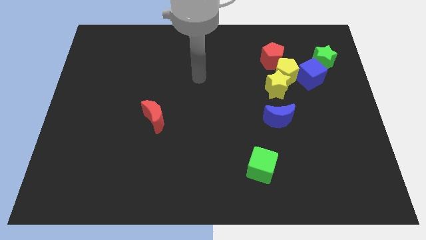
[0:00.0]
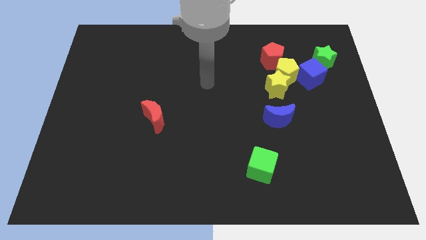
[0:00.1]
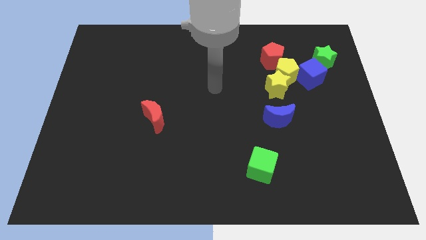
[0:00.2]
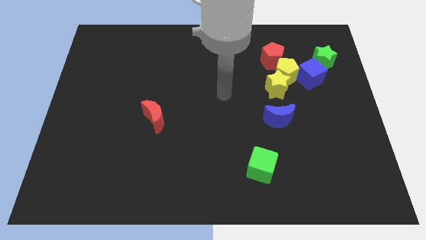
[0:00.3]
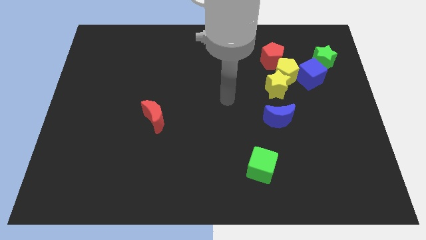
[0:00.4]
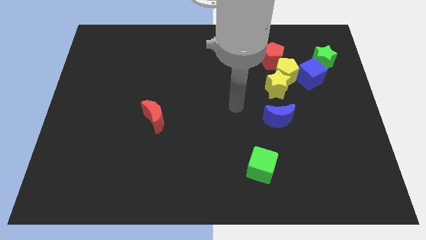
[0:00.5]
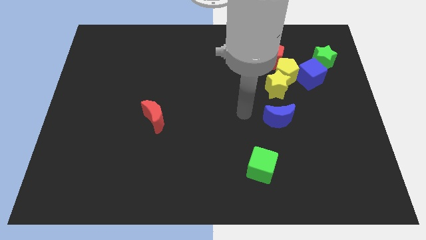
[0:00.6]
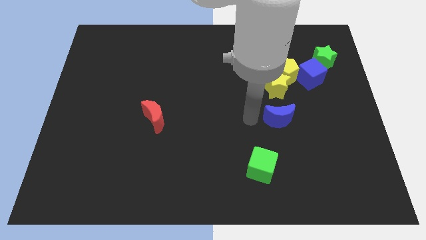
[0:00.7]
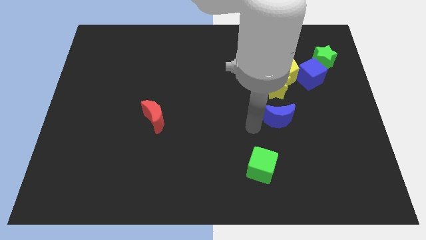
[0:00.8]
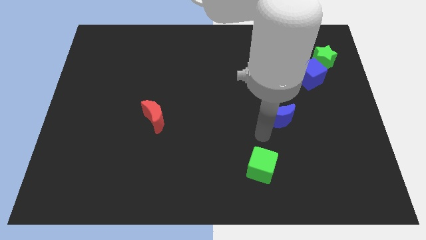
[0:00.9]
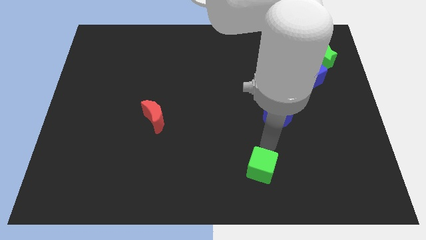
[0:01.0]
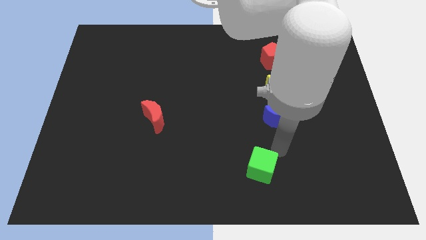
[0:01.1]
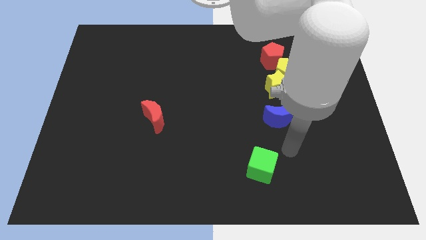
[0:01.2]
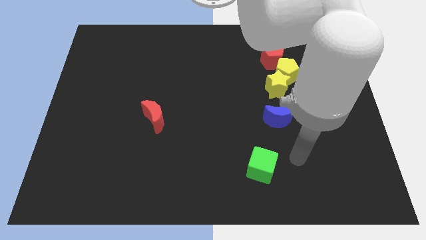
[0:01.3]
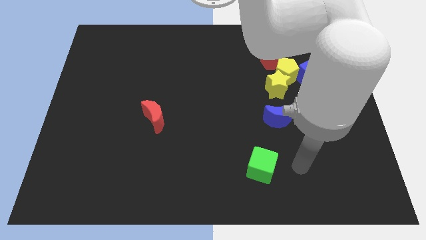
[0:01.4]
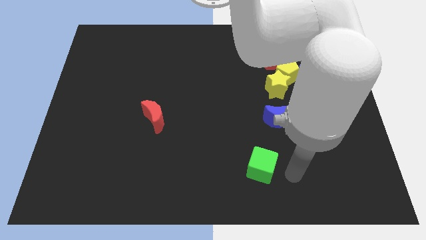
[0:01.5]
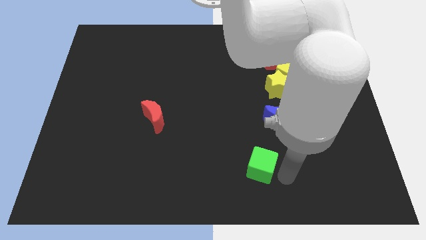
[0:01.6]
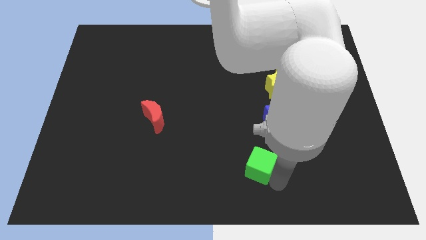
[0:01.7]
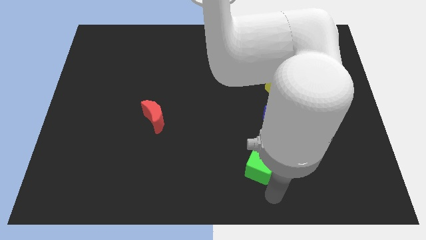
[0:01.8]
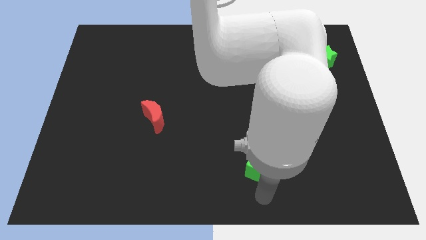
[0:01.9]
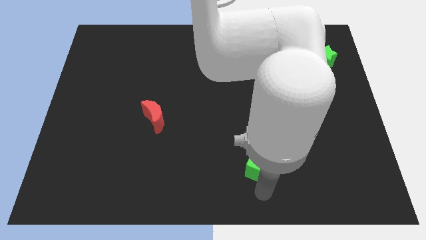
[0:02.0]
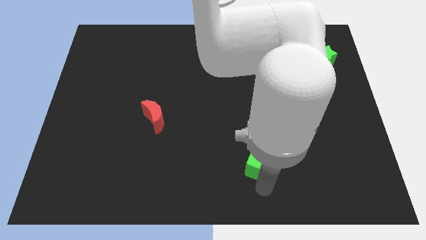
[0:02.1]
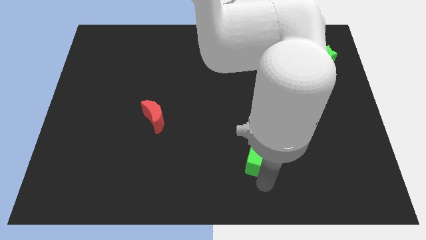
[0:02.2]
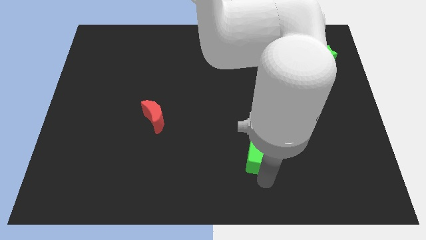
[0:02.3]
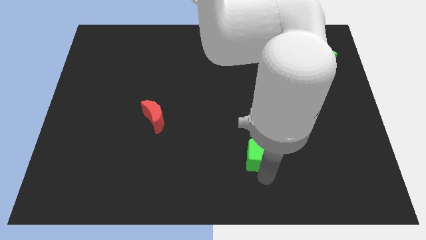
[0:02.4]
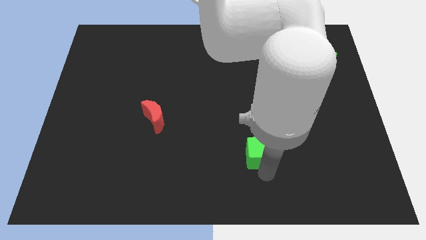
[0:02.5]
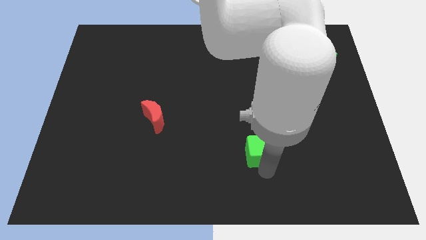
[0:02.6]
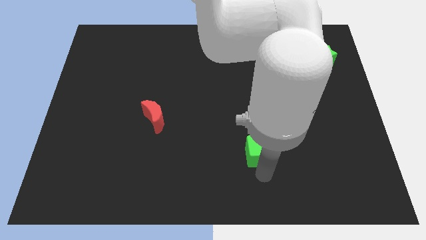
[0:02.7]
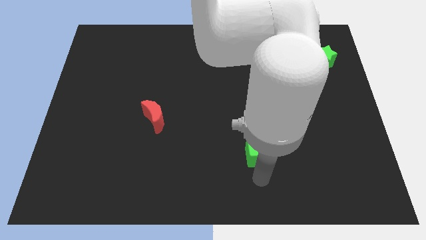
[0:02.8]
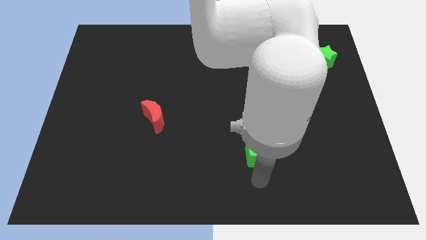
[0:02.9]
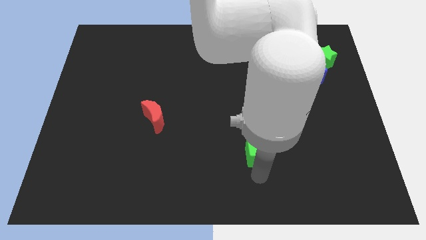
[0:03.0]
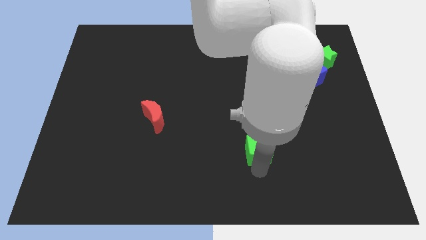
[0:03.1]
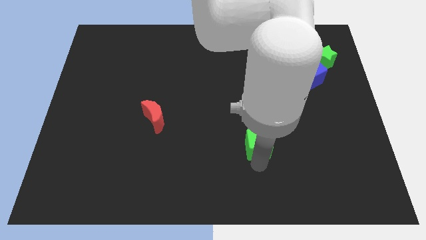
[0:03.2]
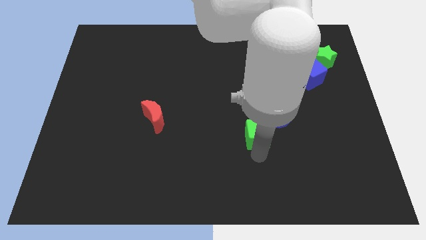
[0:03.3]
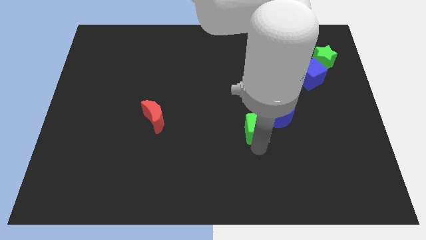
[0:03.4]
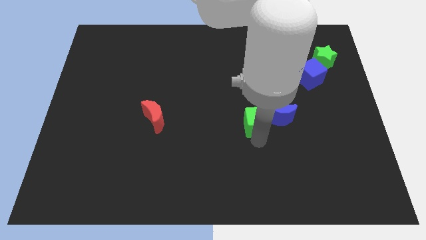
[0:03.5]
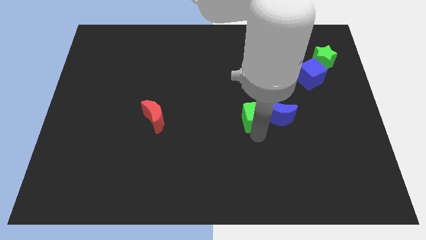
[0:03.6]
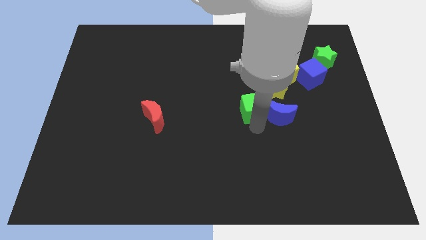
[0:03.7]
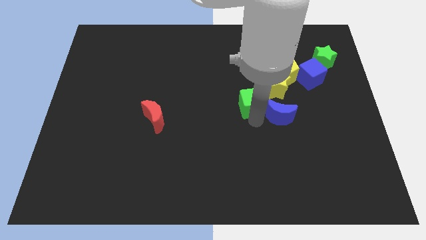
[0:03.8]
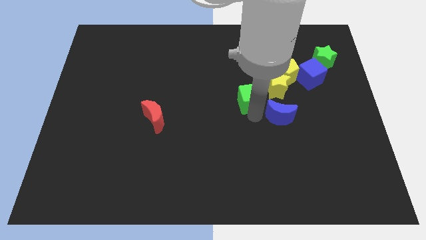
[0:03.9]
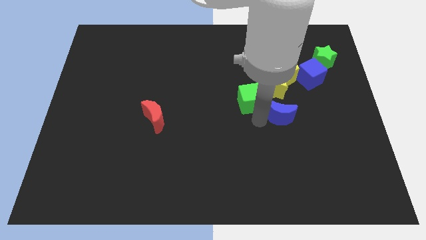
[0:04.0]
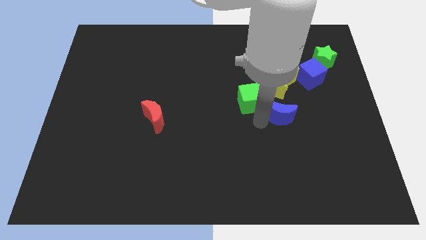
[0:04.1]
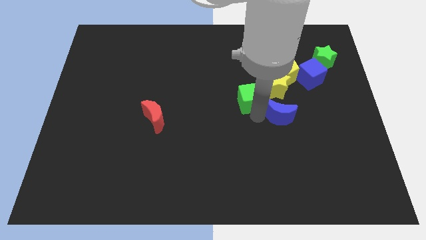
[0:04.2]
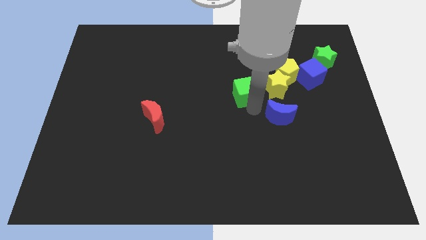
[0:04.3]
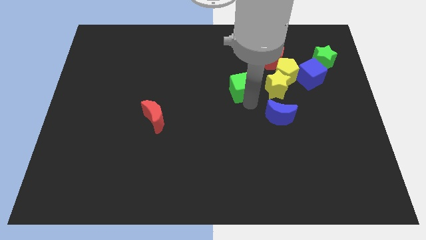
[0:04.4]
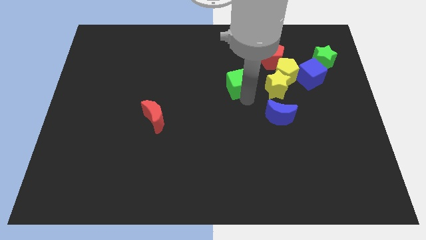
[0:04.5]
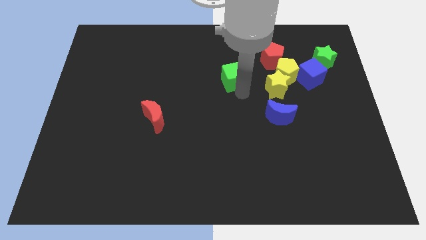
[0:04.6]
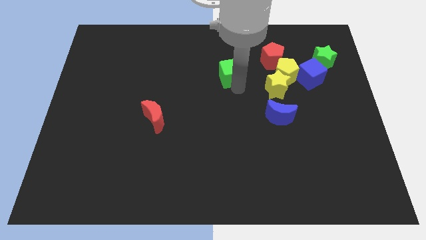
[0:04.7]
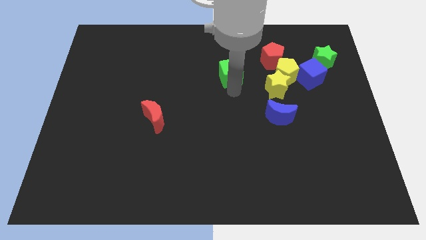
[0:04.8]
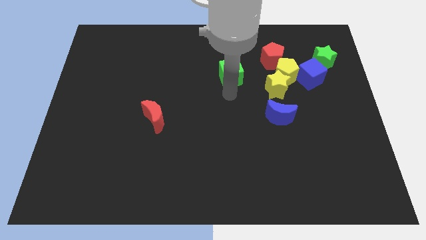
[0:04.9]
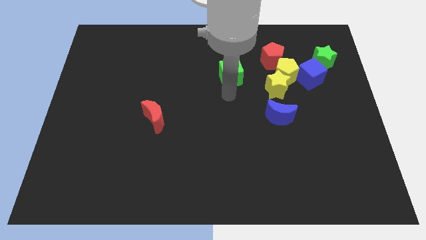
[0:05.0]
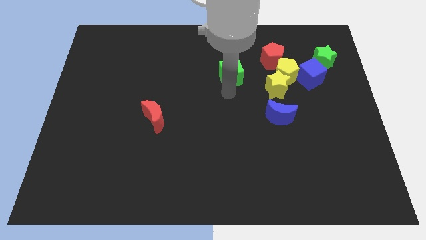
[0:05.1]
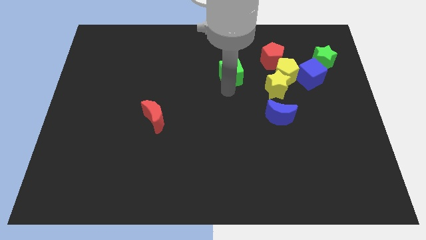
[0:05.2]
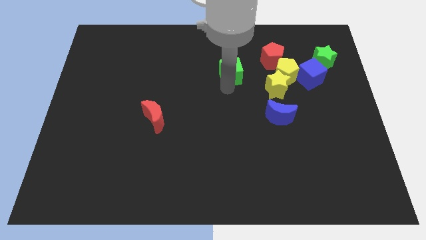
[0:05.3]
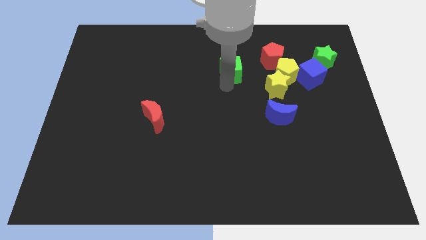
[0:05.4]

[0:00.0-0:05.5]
put the green cube left of the red pentagon

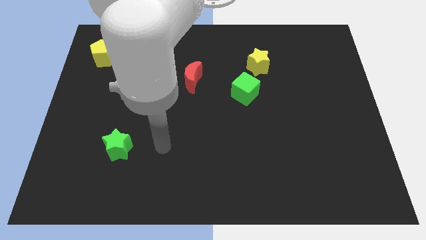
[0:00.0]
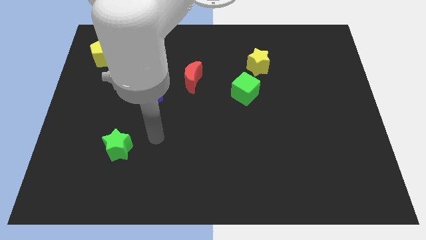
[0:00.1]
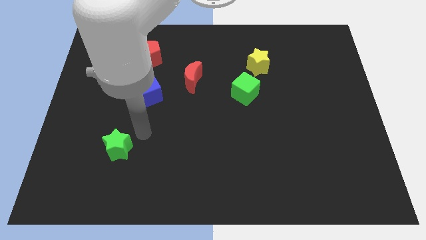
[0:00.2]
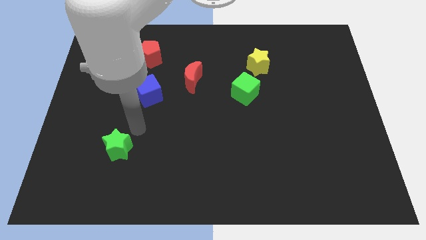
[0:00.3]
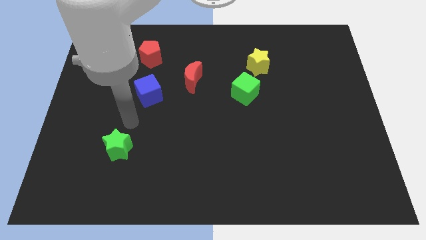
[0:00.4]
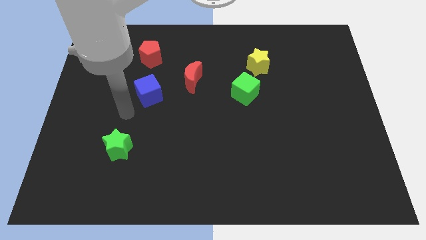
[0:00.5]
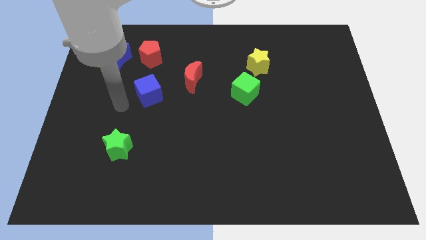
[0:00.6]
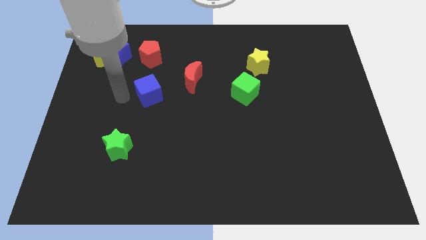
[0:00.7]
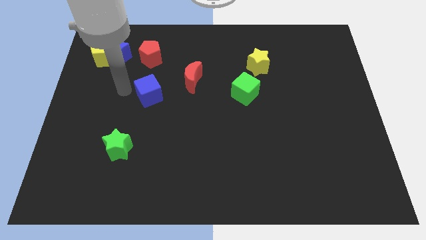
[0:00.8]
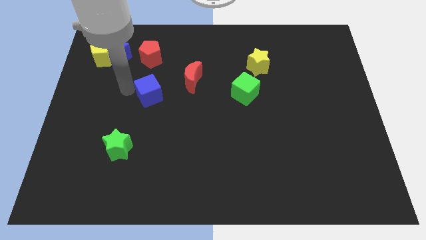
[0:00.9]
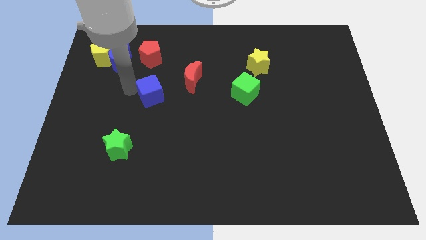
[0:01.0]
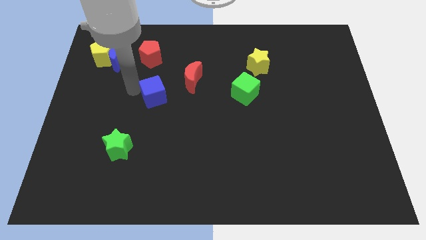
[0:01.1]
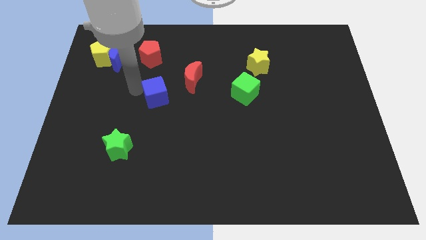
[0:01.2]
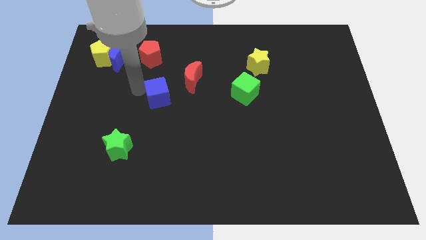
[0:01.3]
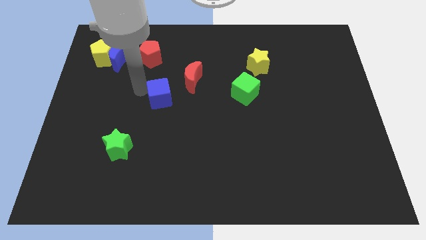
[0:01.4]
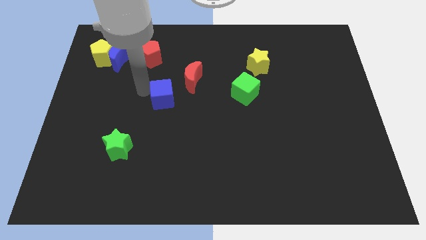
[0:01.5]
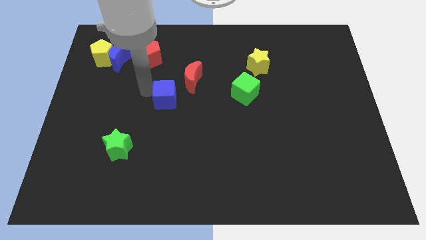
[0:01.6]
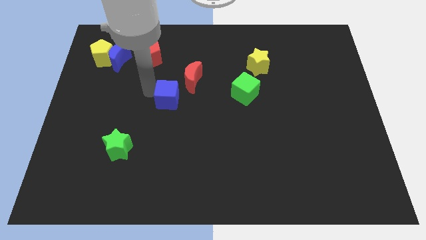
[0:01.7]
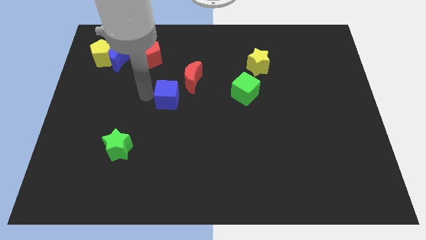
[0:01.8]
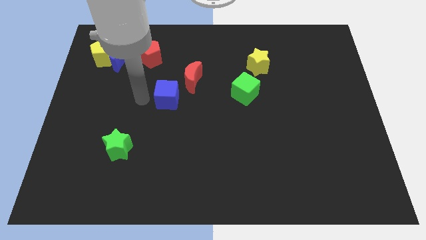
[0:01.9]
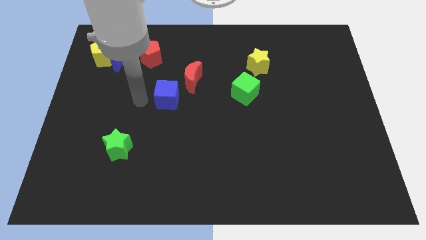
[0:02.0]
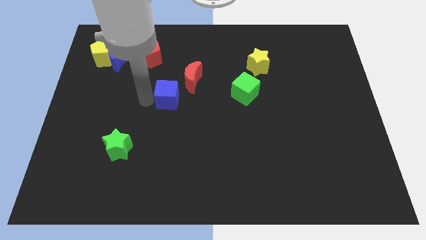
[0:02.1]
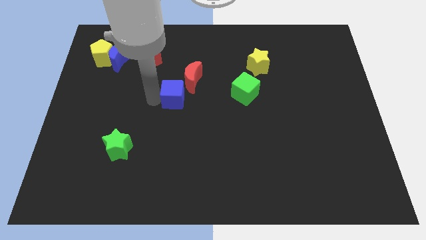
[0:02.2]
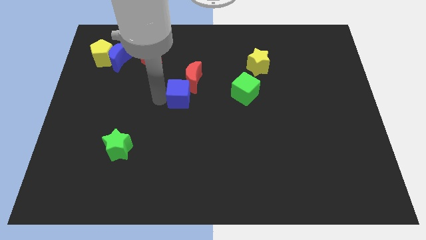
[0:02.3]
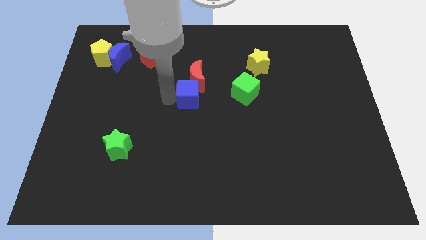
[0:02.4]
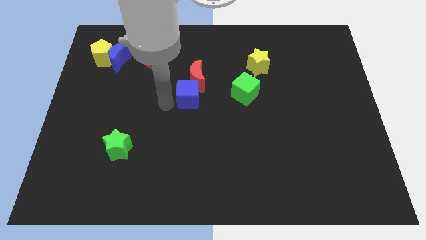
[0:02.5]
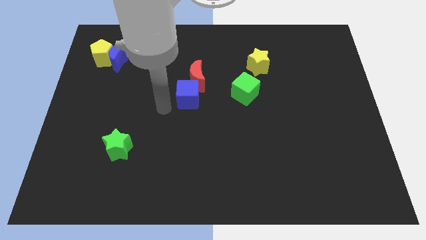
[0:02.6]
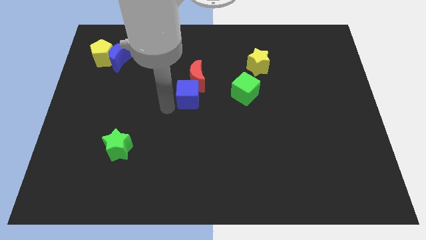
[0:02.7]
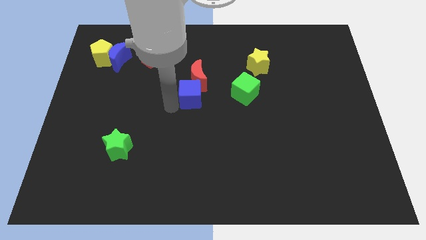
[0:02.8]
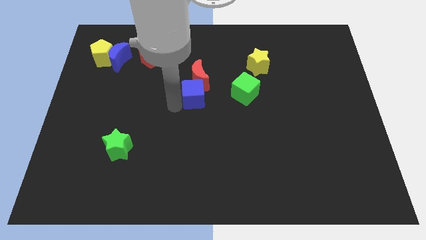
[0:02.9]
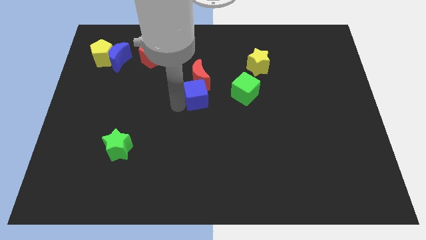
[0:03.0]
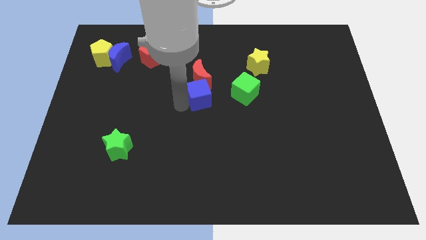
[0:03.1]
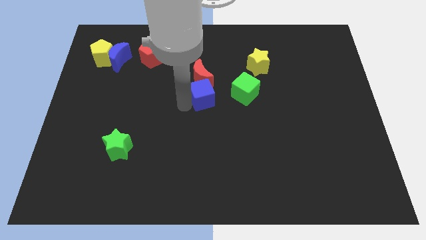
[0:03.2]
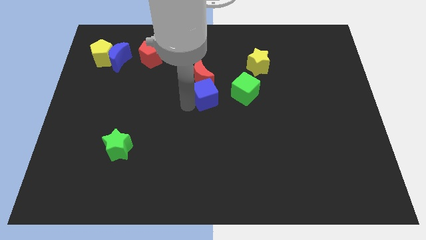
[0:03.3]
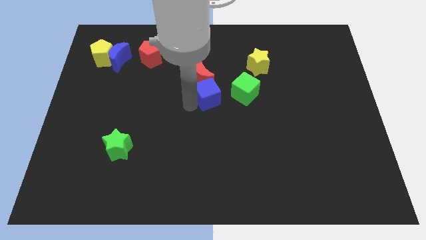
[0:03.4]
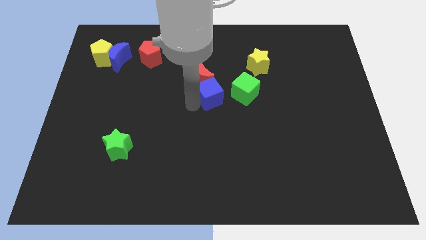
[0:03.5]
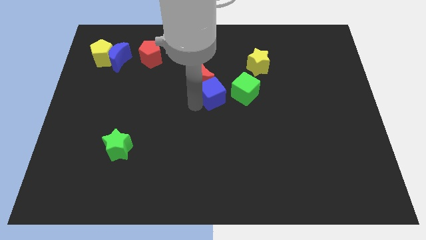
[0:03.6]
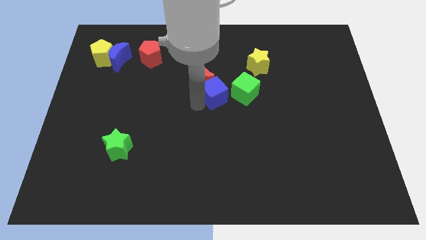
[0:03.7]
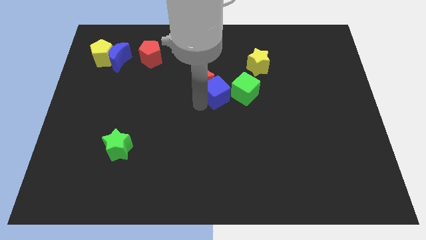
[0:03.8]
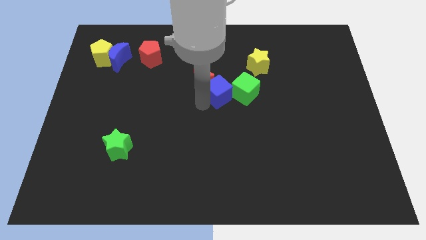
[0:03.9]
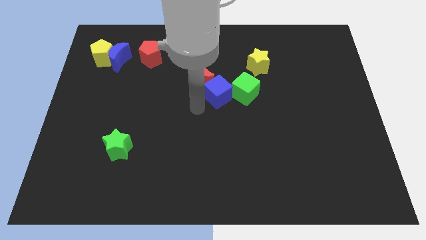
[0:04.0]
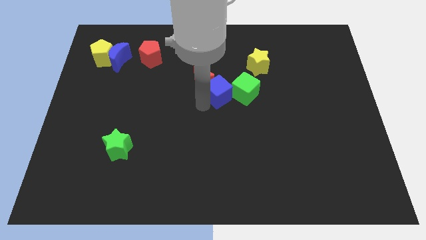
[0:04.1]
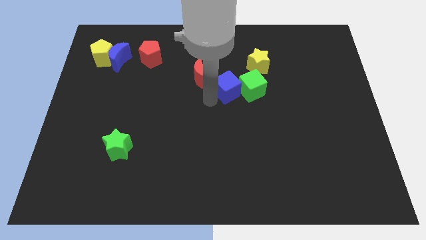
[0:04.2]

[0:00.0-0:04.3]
push the blue cube to the right side of the red moon
